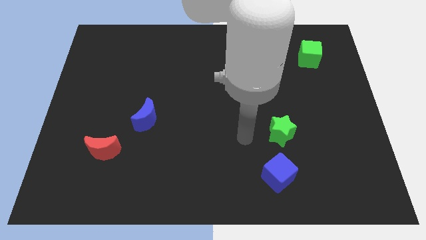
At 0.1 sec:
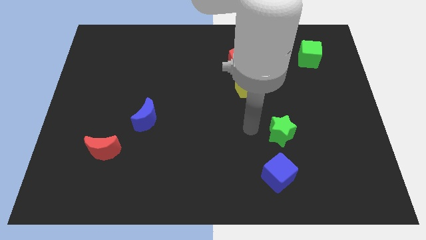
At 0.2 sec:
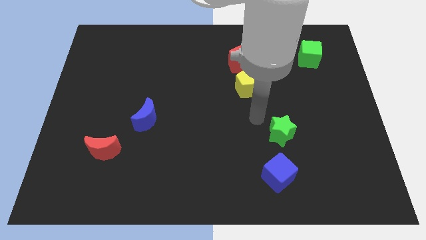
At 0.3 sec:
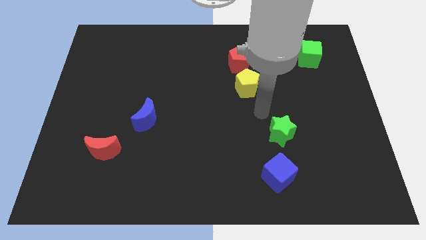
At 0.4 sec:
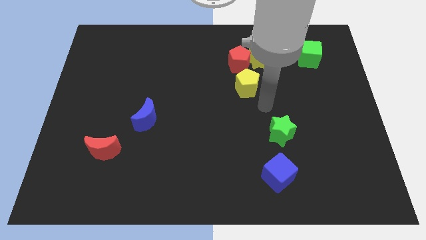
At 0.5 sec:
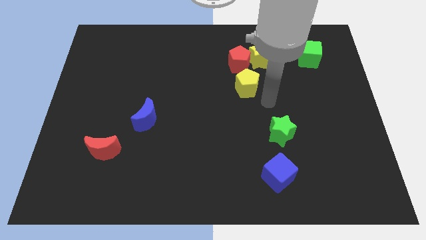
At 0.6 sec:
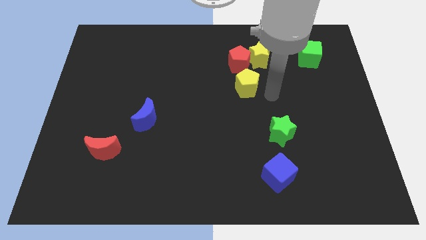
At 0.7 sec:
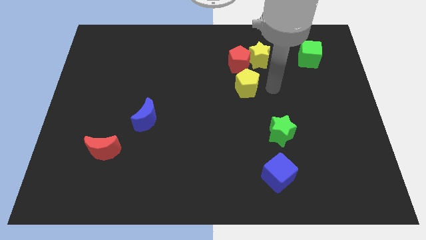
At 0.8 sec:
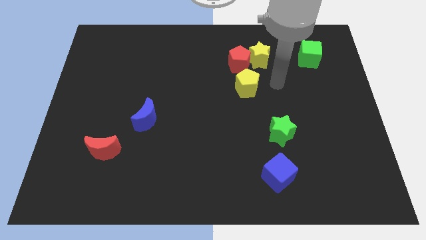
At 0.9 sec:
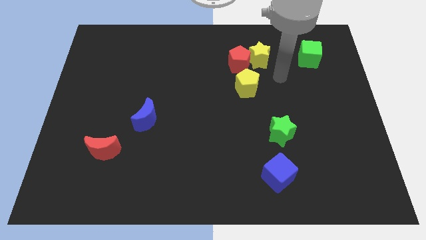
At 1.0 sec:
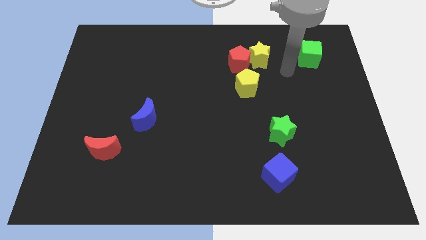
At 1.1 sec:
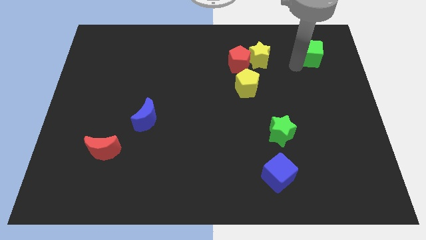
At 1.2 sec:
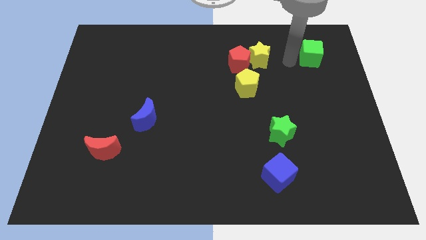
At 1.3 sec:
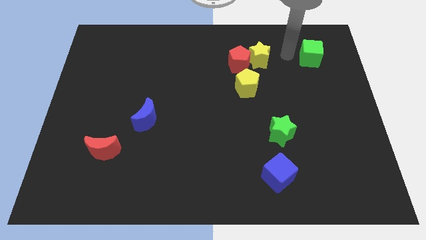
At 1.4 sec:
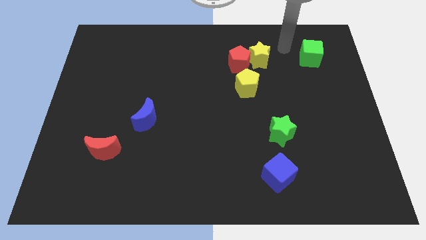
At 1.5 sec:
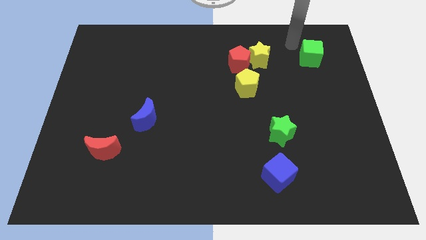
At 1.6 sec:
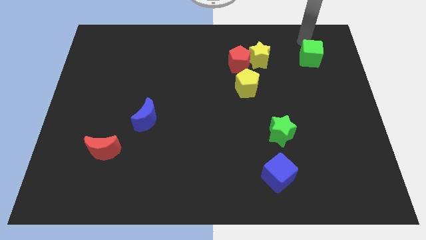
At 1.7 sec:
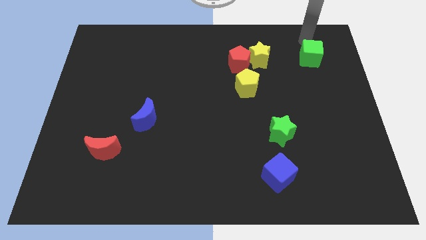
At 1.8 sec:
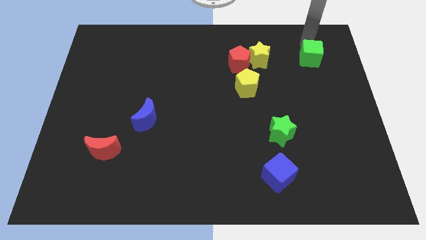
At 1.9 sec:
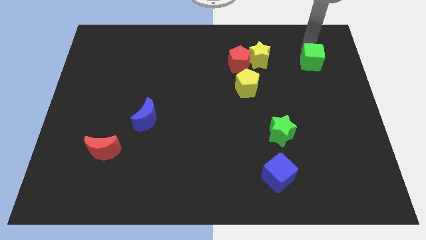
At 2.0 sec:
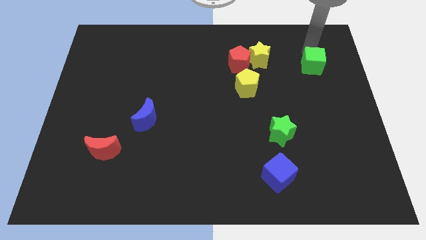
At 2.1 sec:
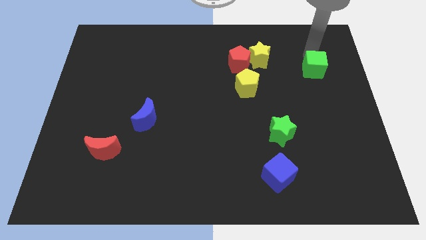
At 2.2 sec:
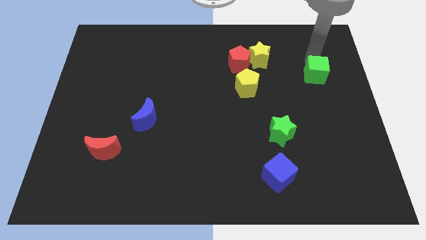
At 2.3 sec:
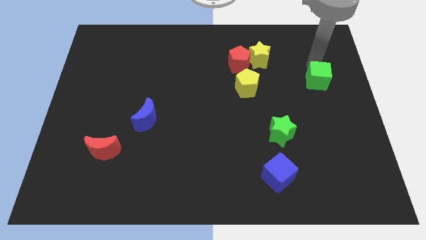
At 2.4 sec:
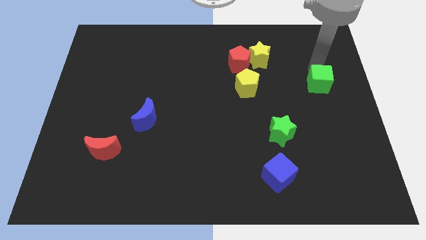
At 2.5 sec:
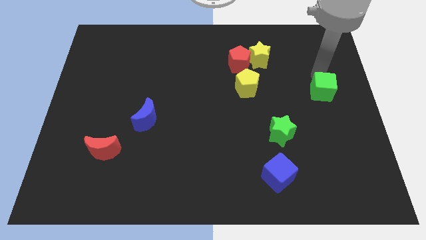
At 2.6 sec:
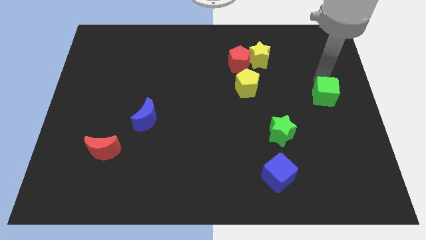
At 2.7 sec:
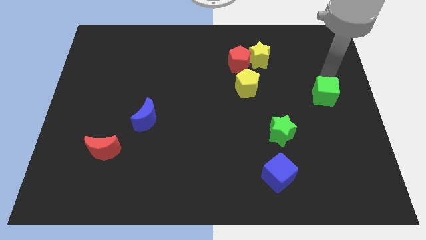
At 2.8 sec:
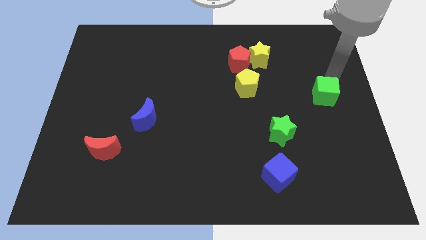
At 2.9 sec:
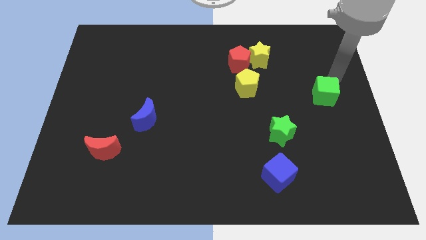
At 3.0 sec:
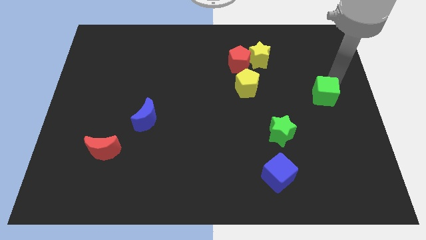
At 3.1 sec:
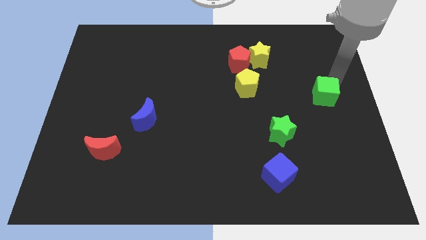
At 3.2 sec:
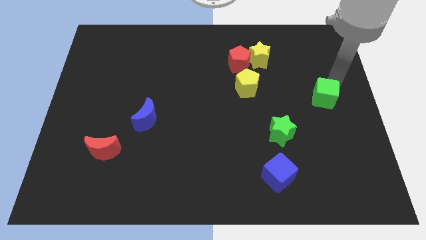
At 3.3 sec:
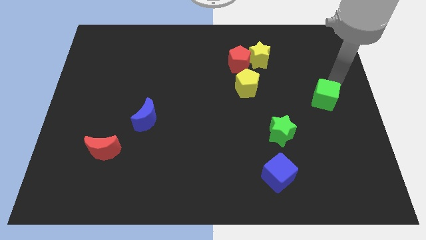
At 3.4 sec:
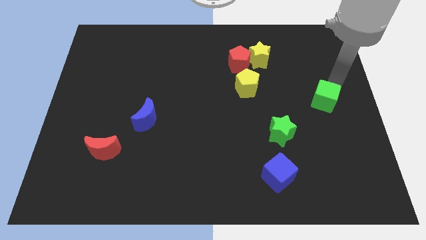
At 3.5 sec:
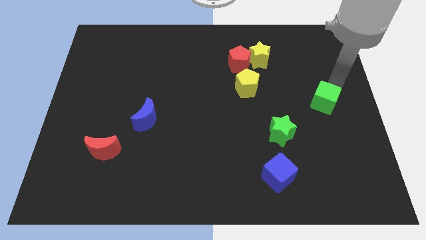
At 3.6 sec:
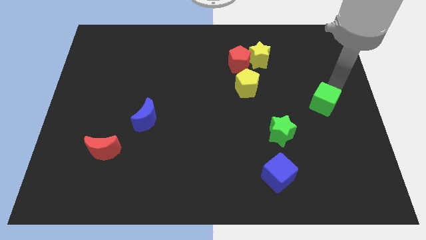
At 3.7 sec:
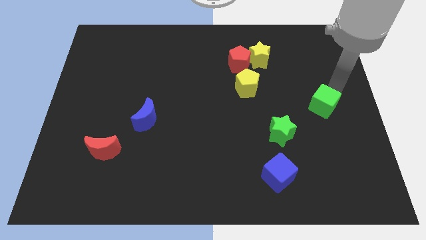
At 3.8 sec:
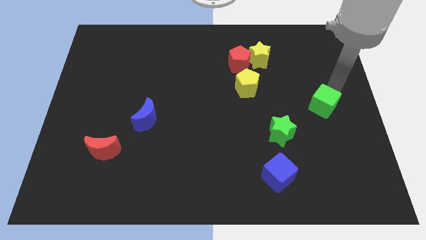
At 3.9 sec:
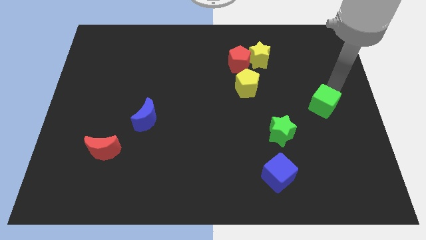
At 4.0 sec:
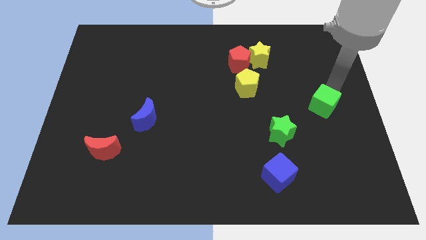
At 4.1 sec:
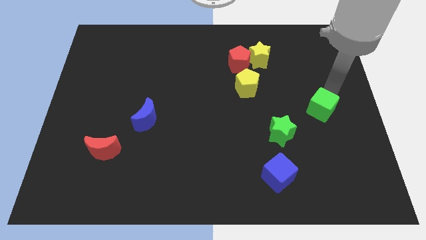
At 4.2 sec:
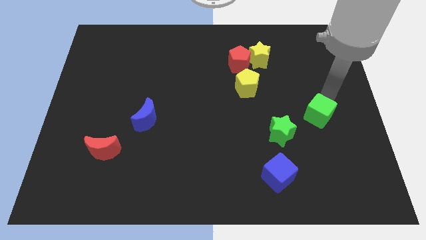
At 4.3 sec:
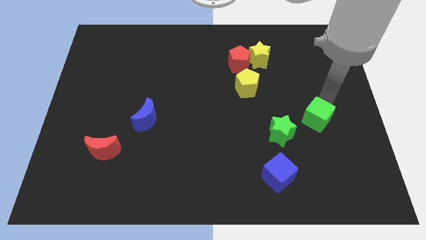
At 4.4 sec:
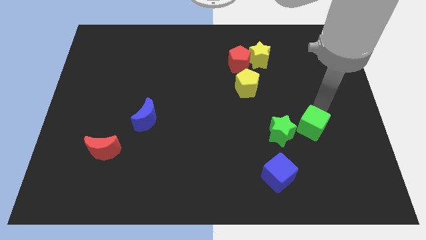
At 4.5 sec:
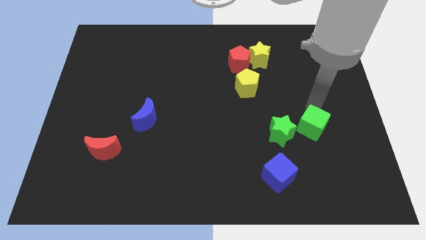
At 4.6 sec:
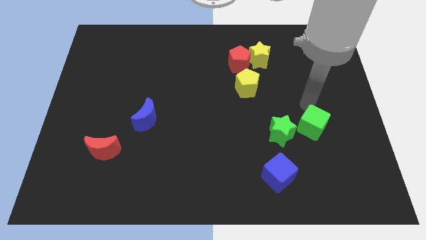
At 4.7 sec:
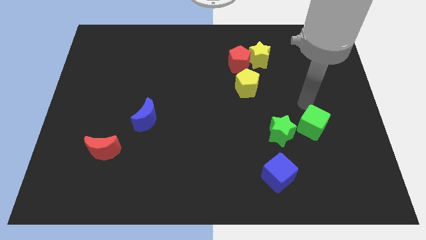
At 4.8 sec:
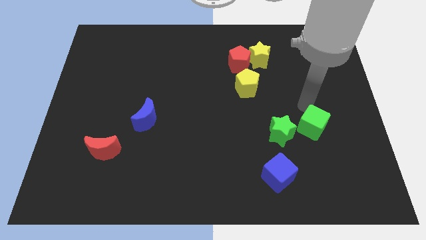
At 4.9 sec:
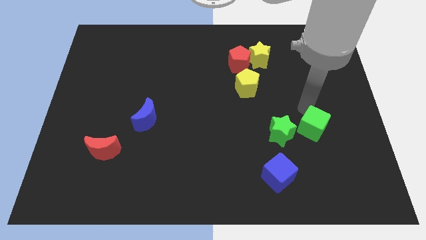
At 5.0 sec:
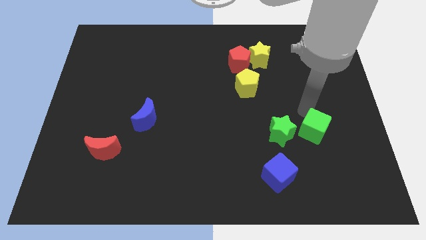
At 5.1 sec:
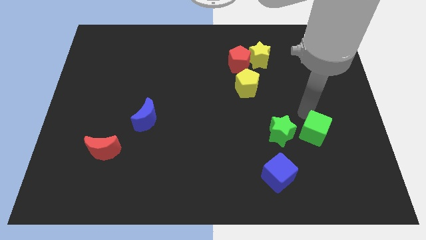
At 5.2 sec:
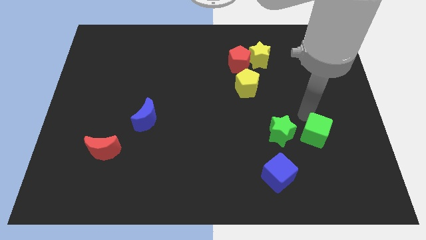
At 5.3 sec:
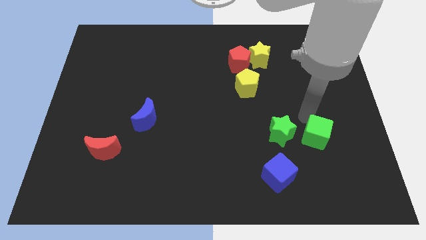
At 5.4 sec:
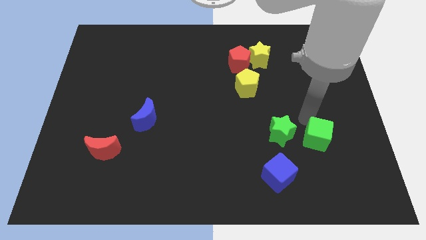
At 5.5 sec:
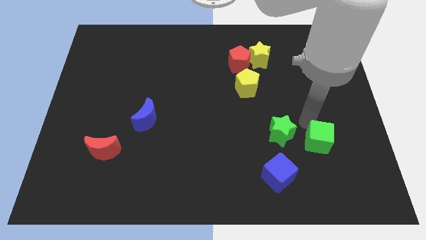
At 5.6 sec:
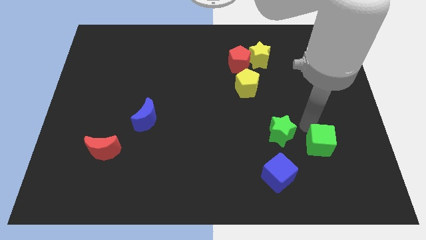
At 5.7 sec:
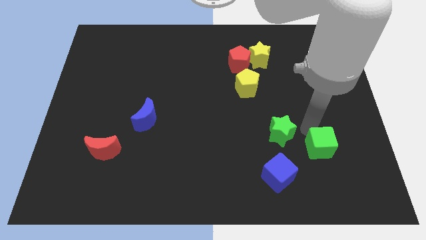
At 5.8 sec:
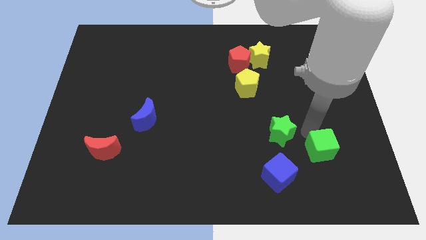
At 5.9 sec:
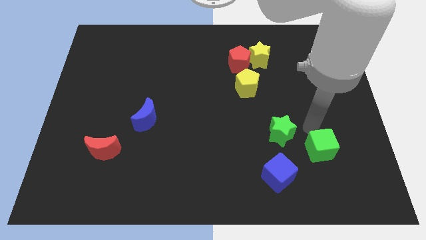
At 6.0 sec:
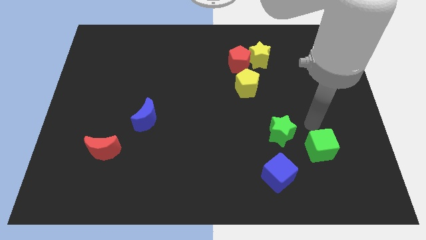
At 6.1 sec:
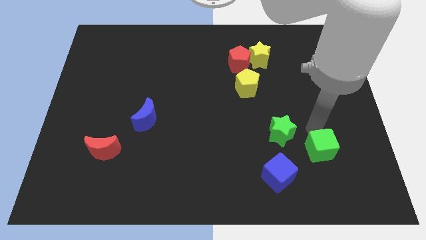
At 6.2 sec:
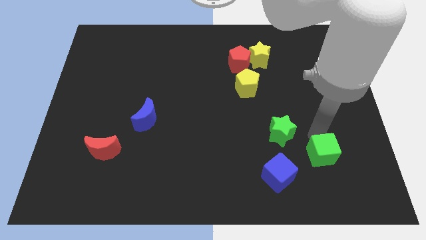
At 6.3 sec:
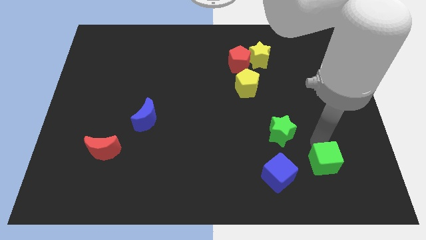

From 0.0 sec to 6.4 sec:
put the green cube right of the blue cube
